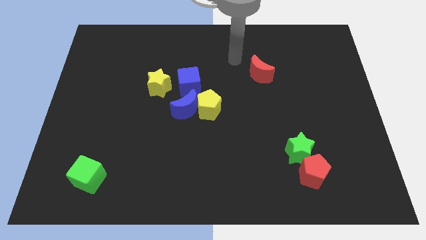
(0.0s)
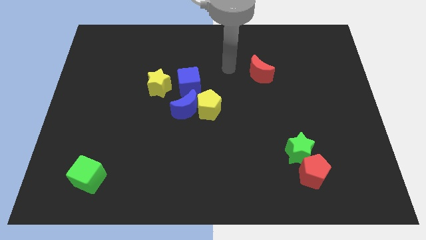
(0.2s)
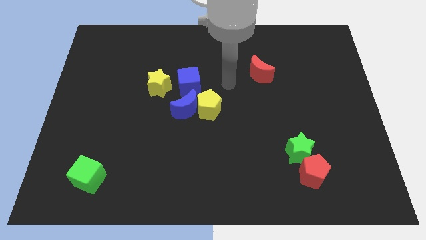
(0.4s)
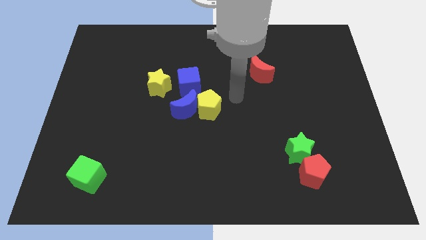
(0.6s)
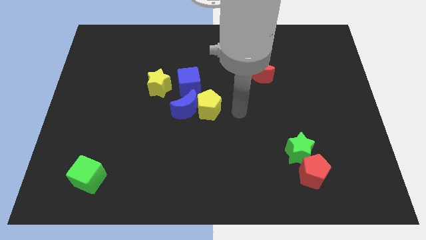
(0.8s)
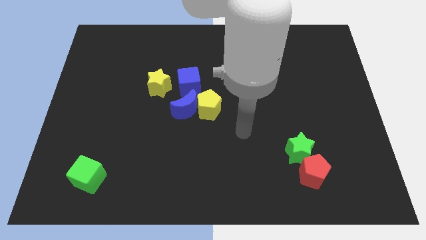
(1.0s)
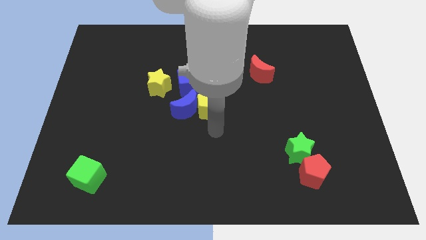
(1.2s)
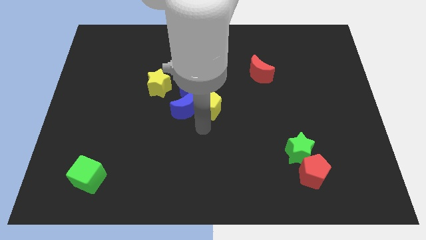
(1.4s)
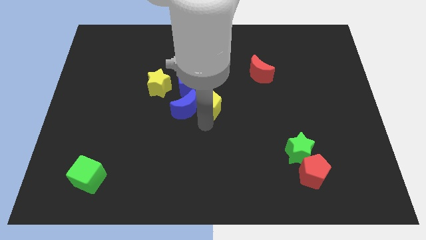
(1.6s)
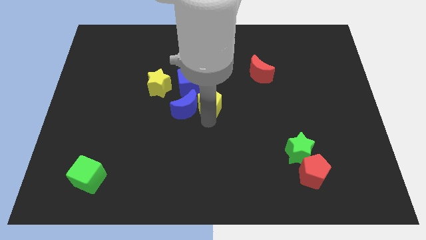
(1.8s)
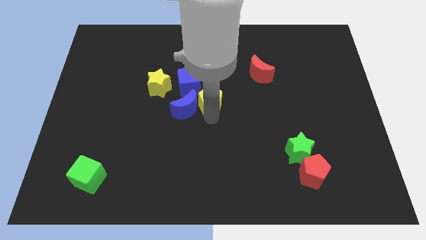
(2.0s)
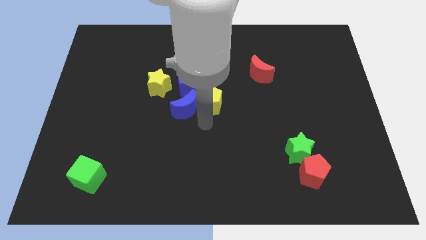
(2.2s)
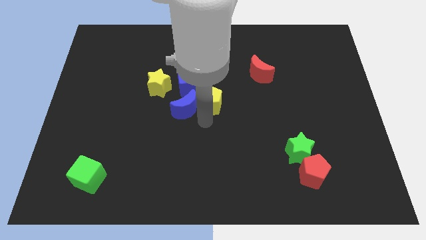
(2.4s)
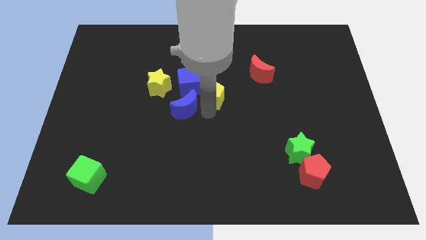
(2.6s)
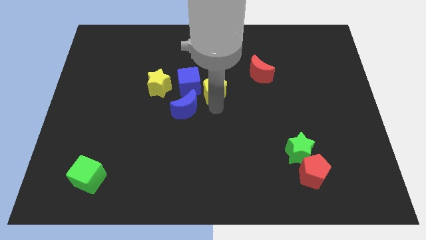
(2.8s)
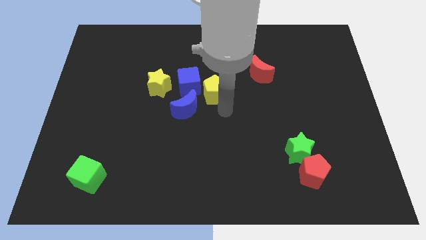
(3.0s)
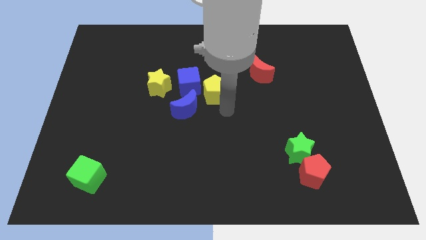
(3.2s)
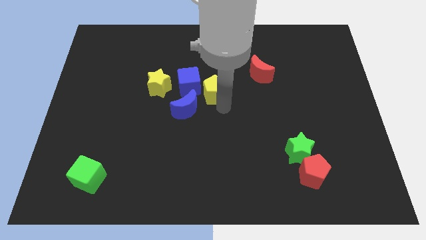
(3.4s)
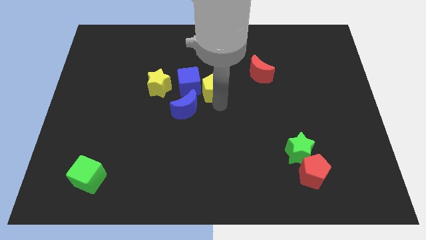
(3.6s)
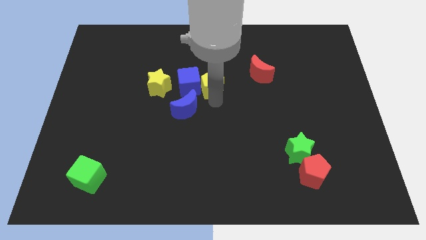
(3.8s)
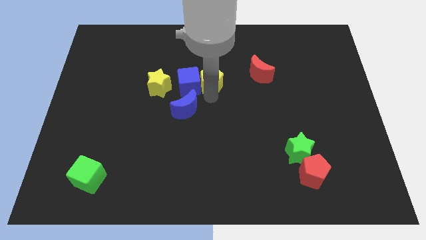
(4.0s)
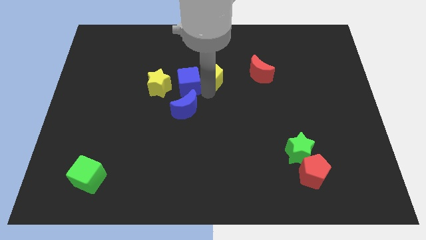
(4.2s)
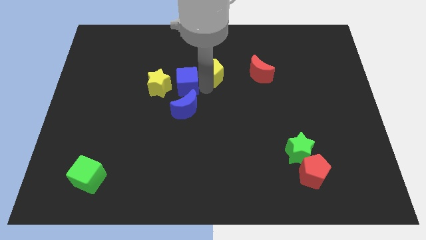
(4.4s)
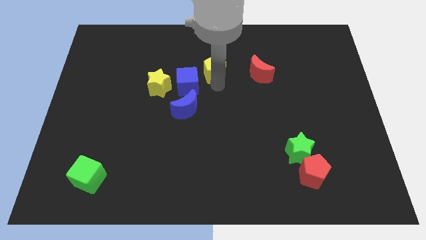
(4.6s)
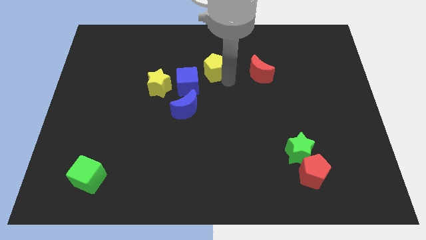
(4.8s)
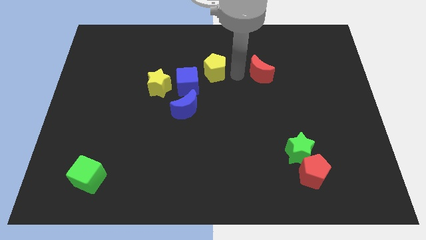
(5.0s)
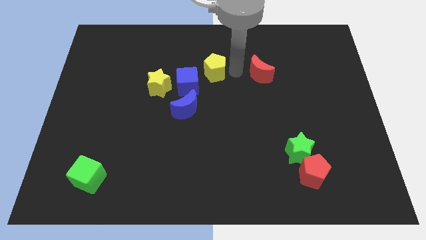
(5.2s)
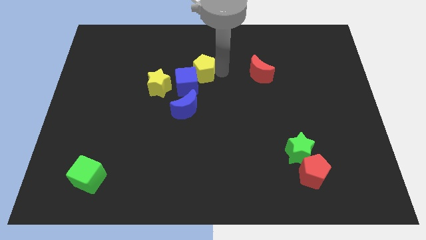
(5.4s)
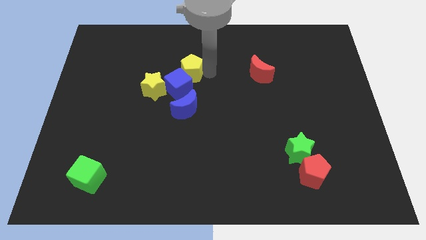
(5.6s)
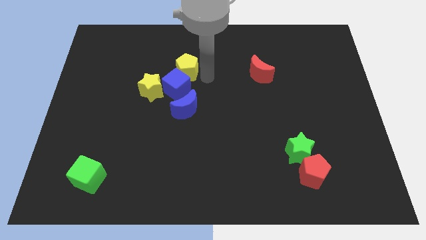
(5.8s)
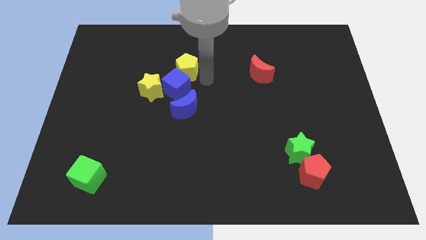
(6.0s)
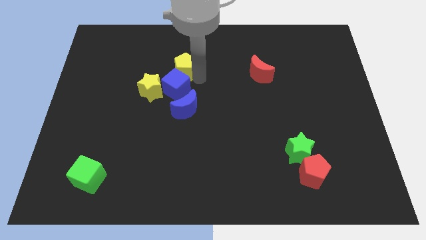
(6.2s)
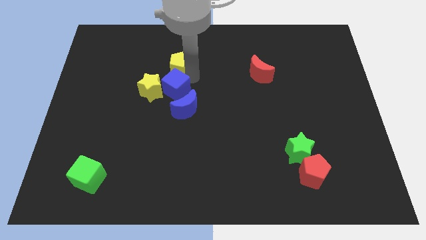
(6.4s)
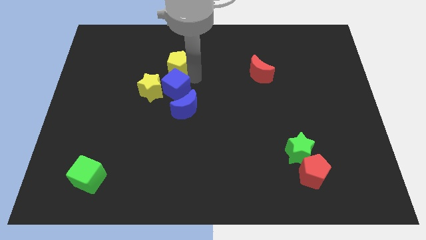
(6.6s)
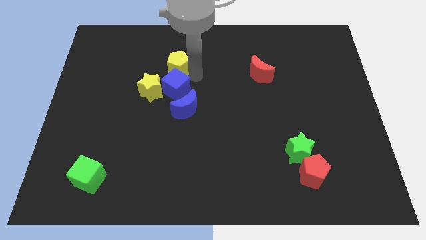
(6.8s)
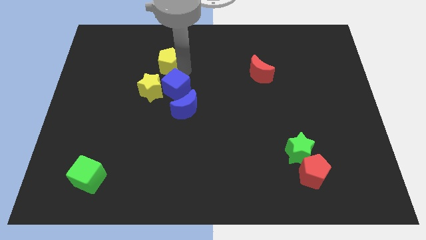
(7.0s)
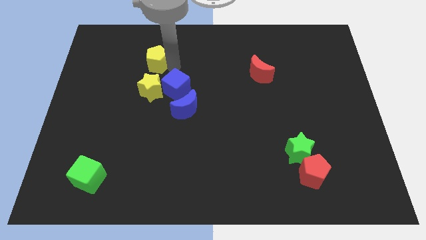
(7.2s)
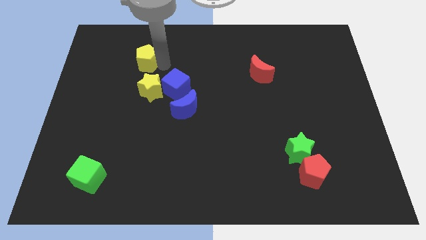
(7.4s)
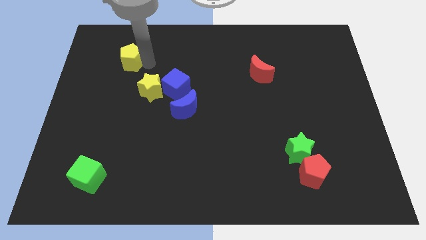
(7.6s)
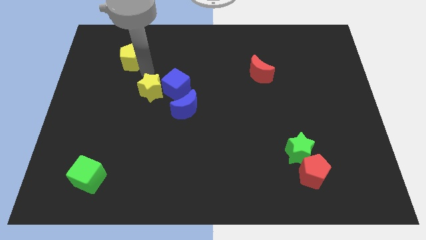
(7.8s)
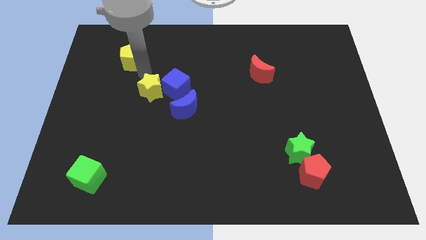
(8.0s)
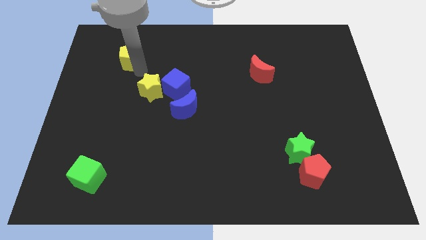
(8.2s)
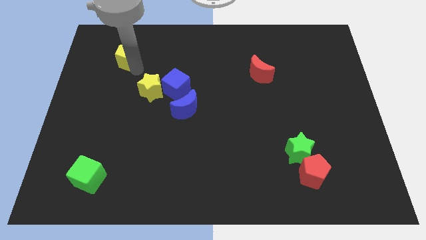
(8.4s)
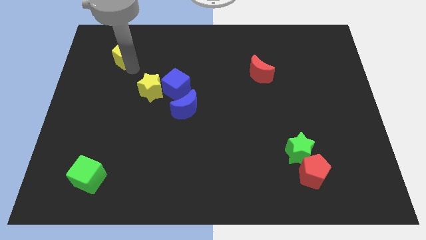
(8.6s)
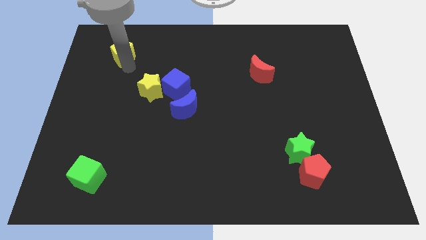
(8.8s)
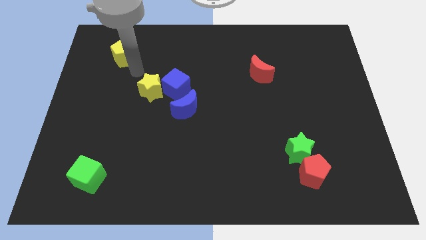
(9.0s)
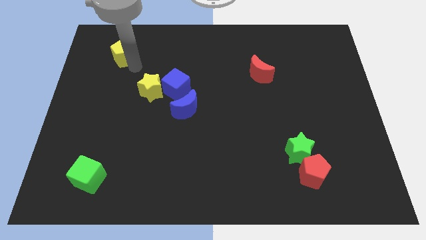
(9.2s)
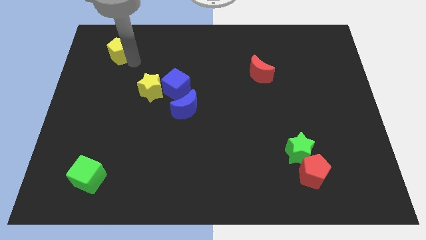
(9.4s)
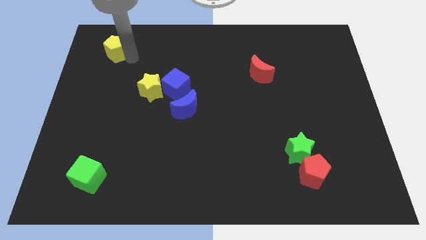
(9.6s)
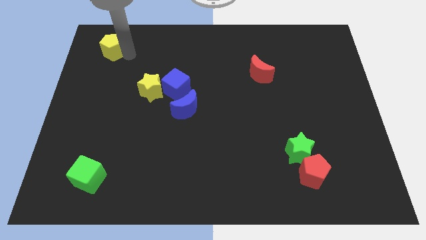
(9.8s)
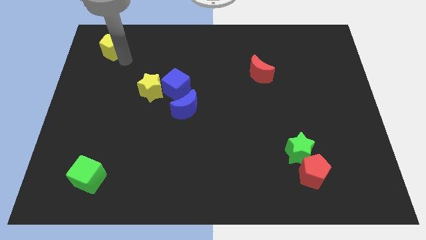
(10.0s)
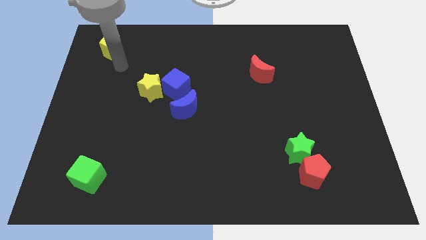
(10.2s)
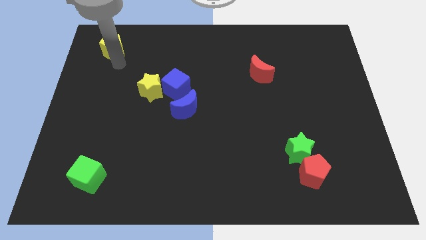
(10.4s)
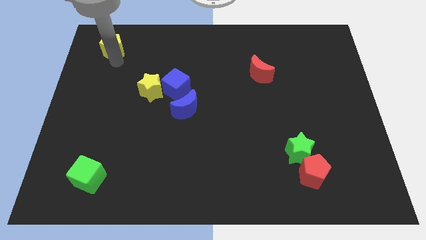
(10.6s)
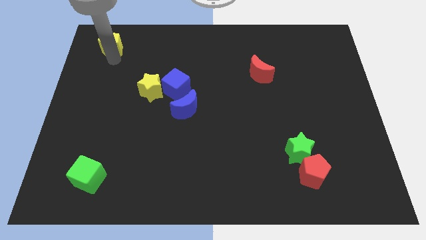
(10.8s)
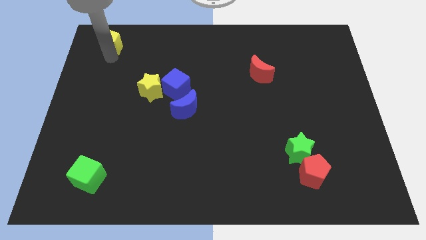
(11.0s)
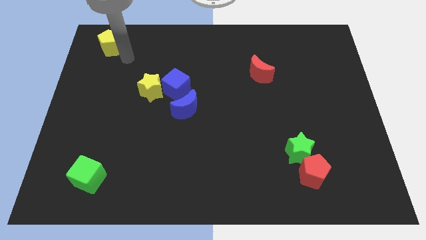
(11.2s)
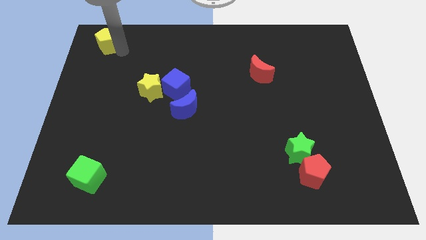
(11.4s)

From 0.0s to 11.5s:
put the yellow pentagon to the top left of the board
